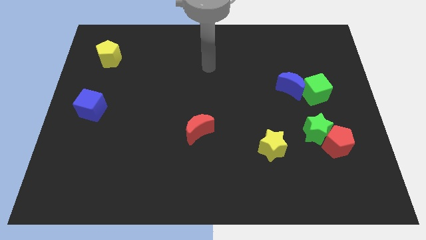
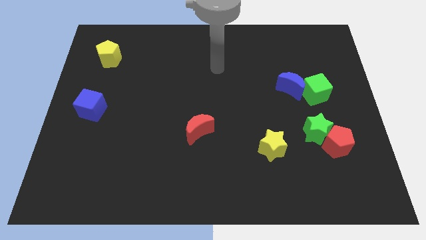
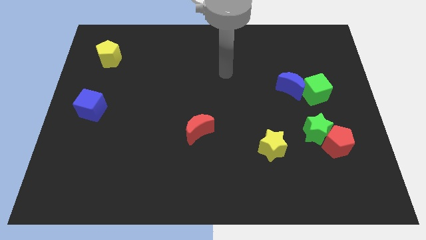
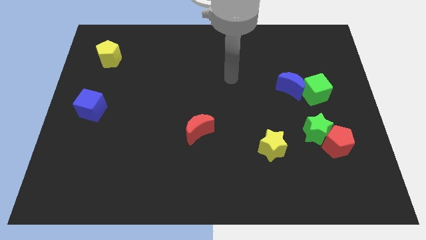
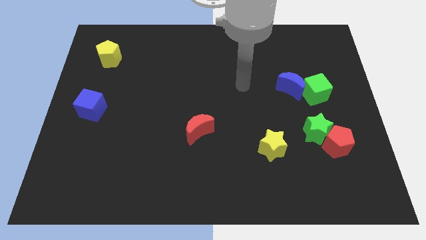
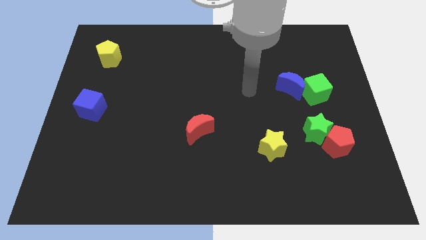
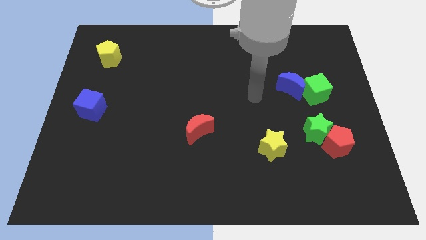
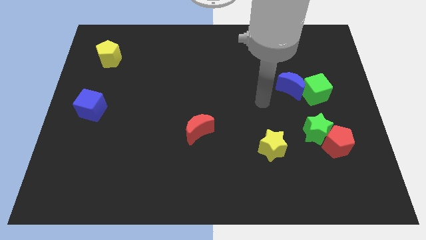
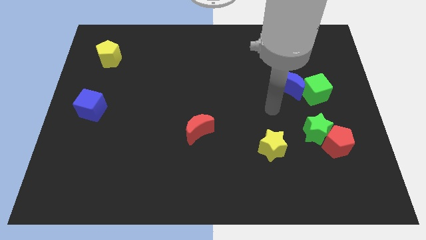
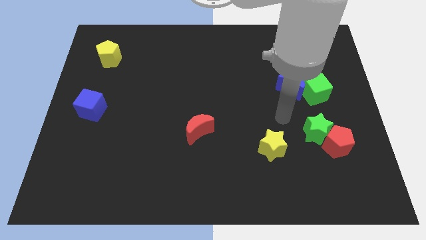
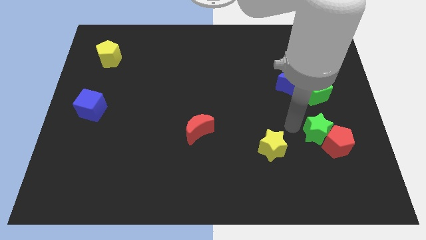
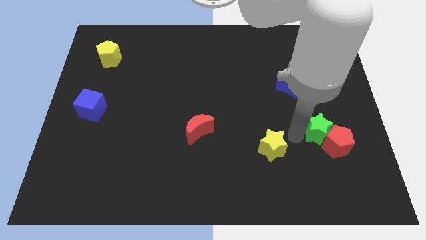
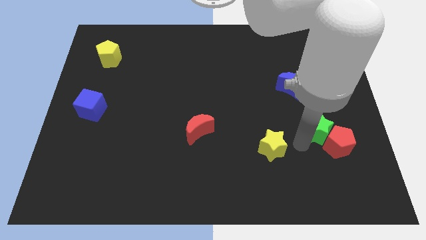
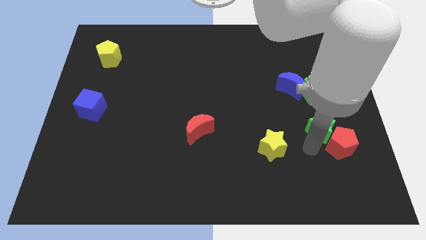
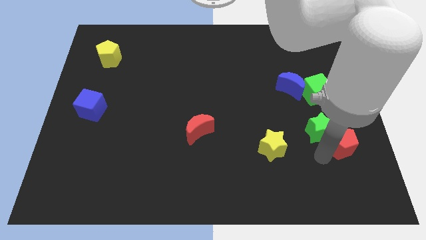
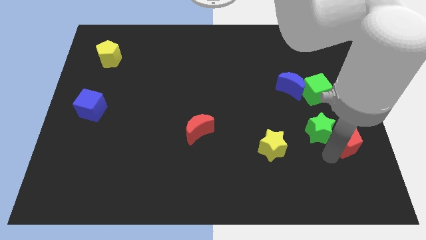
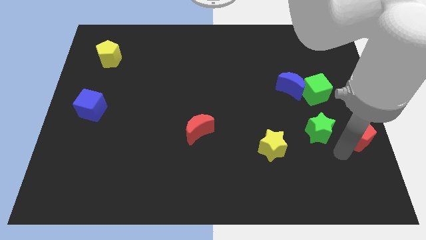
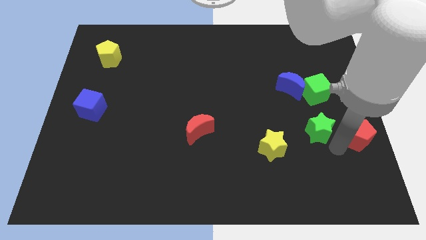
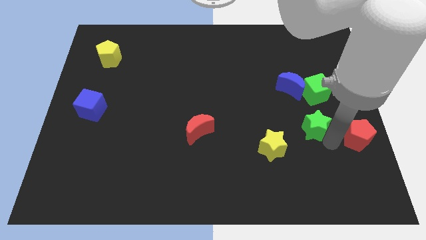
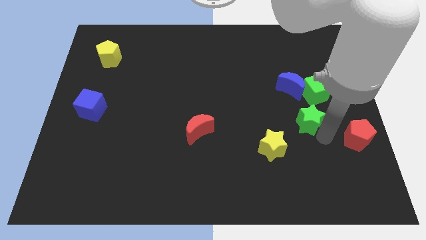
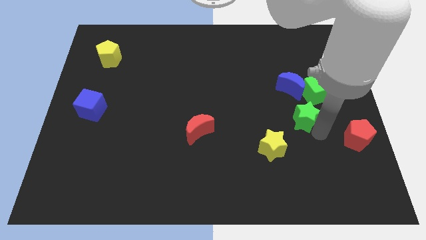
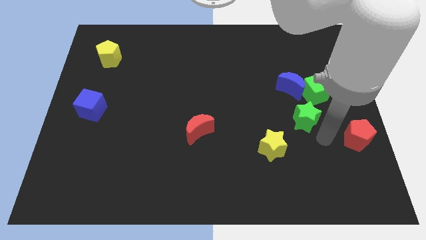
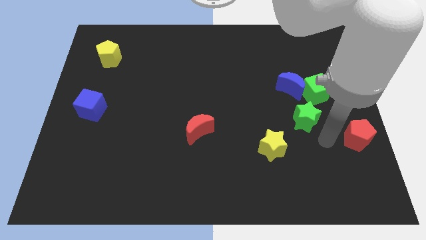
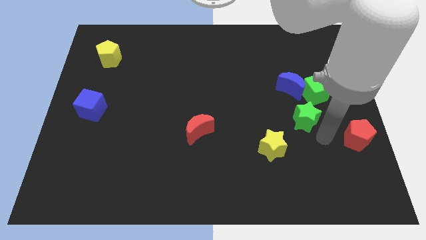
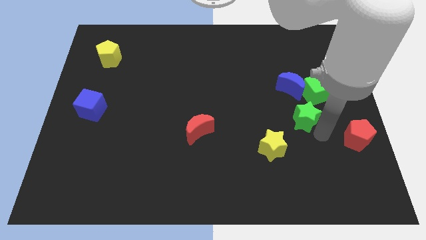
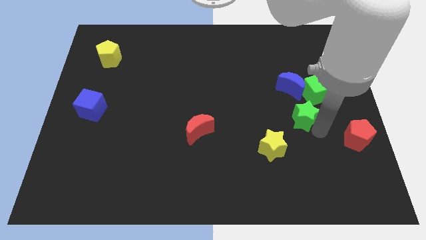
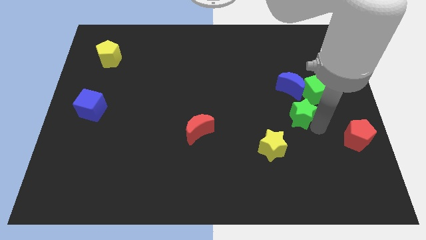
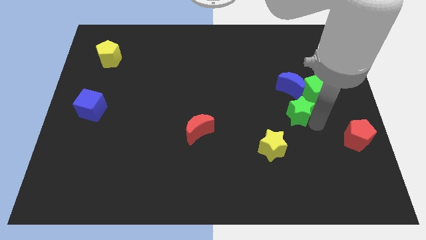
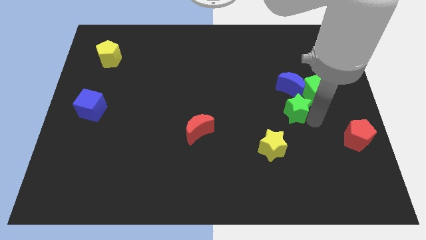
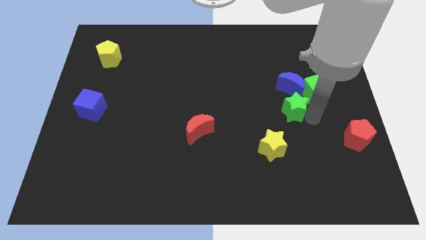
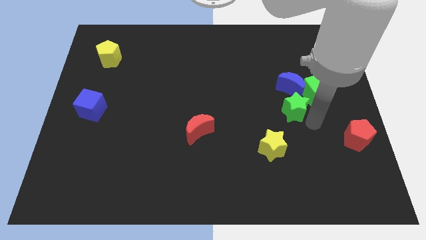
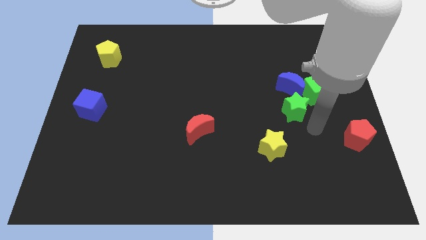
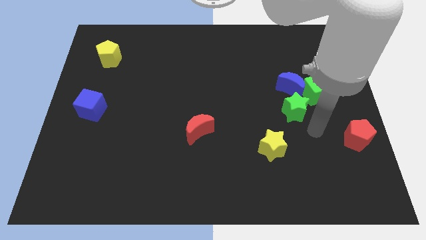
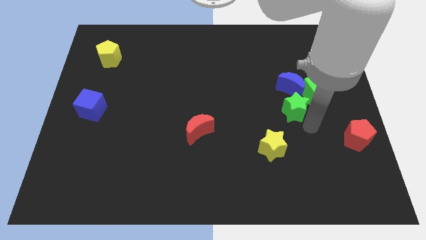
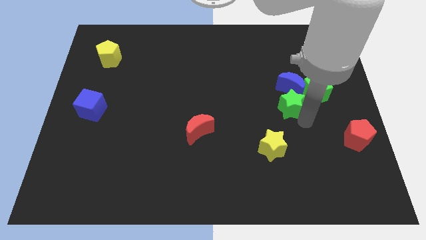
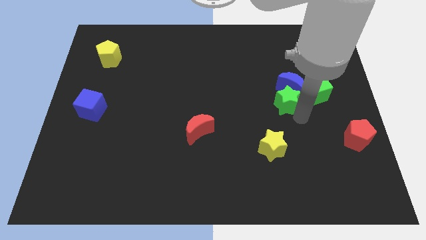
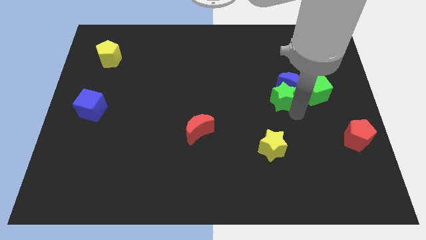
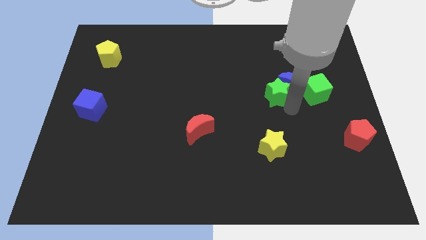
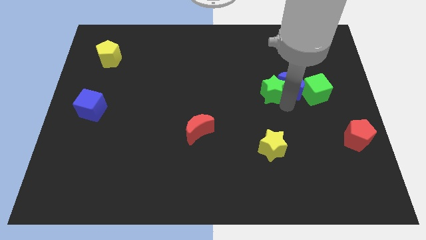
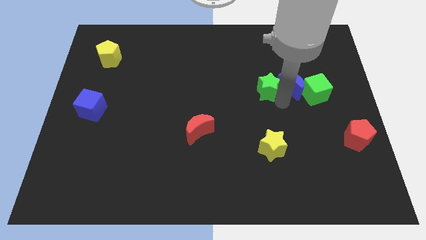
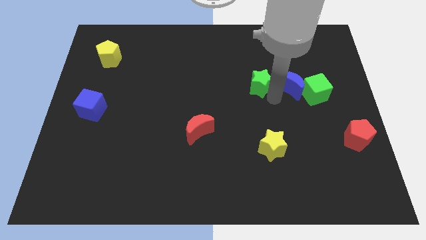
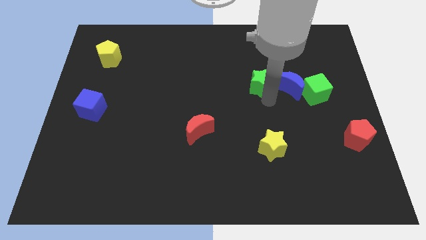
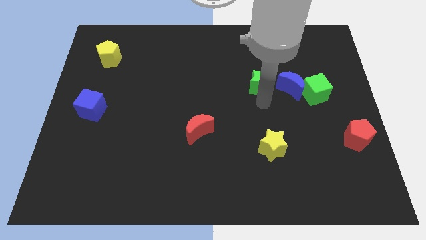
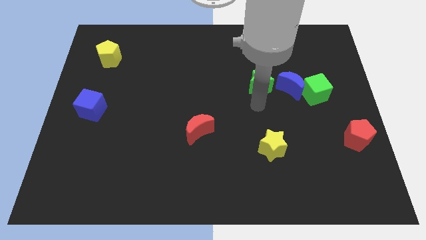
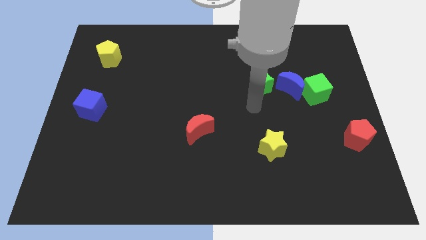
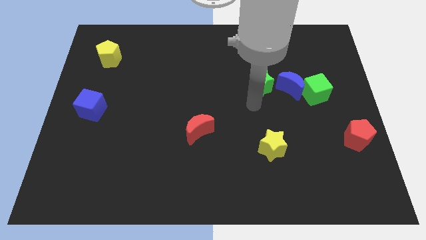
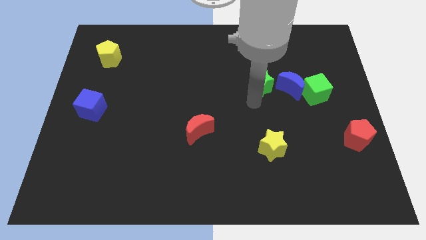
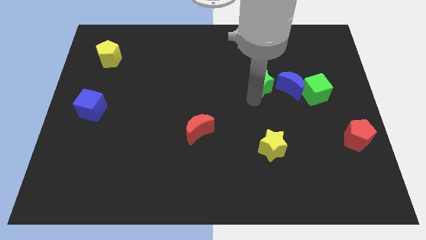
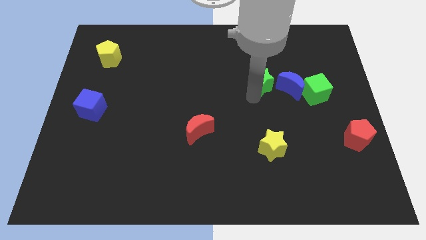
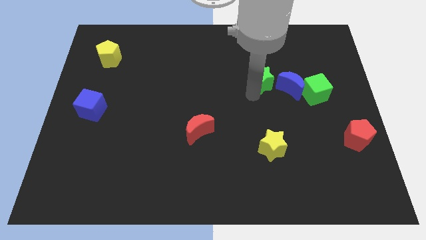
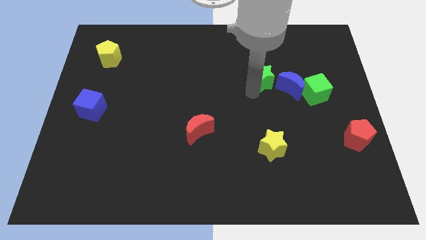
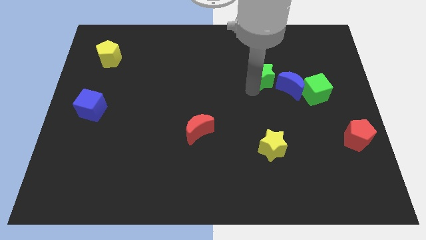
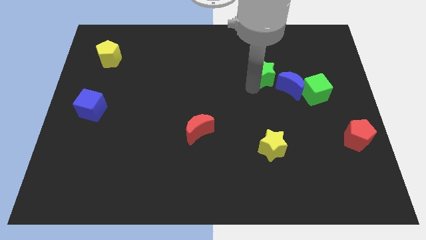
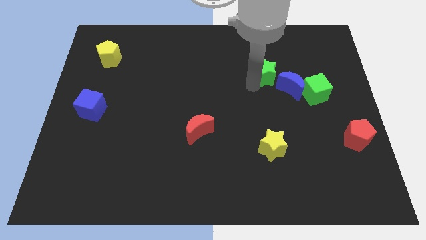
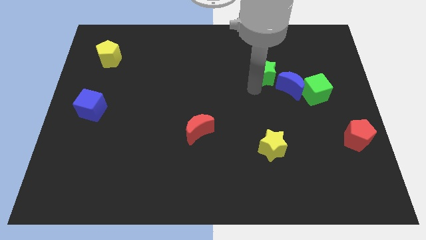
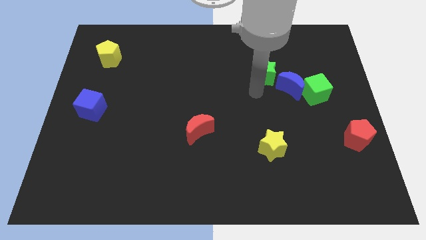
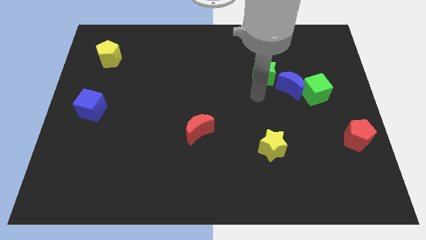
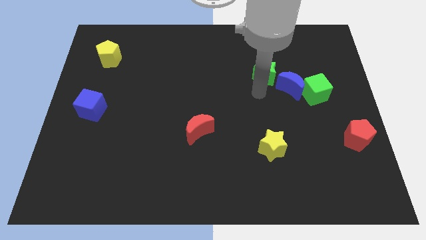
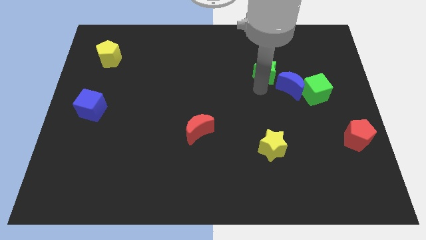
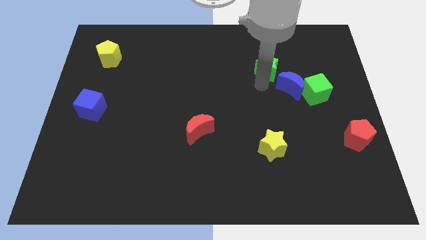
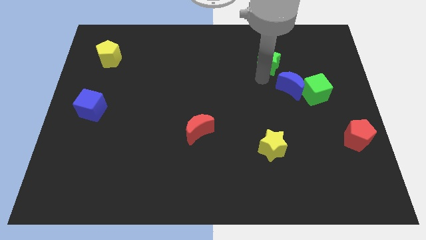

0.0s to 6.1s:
put the green star to the top side of the blue moon

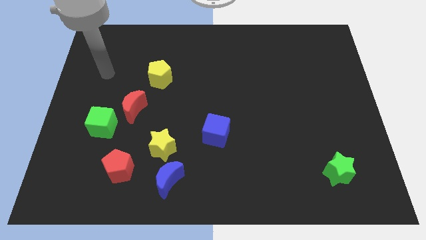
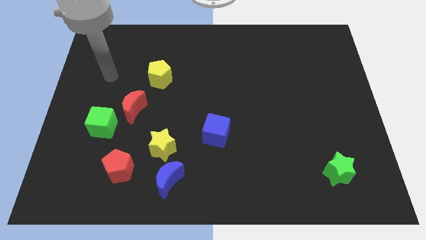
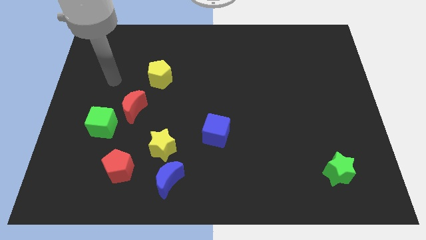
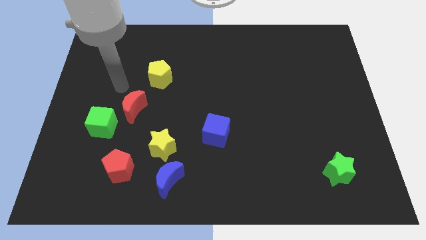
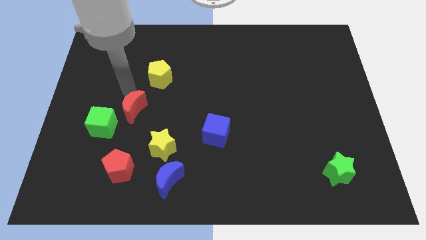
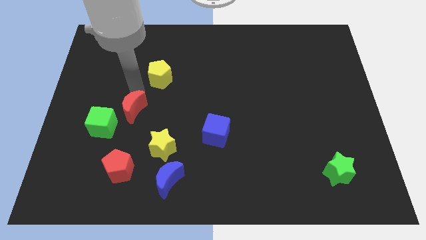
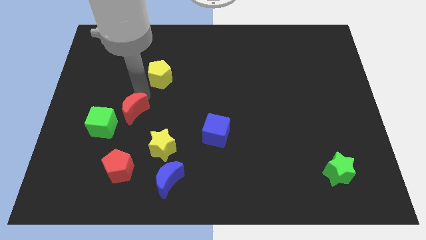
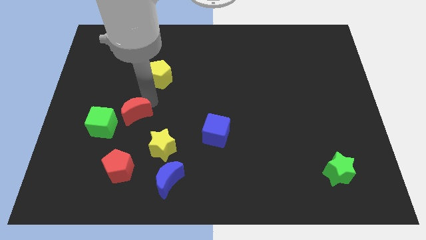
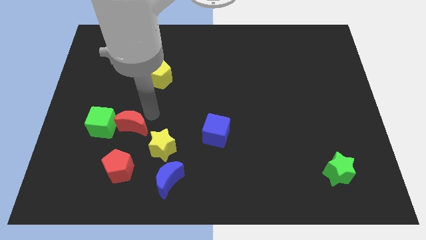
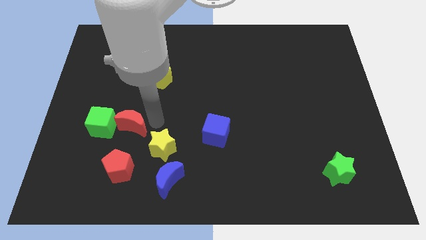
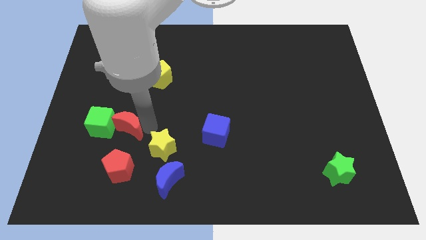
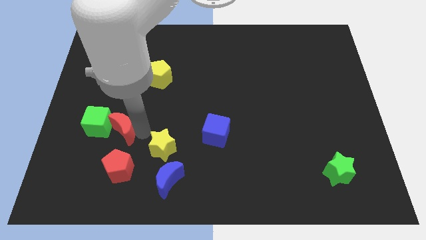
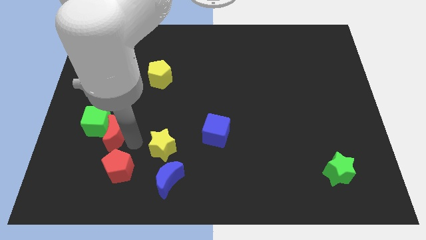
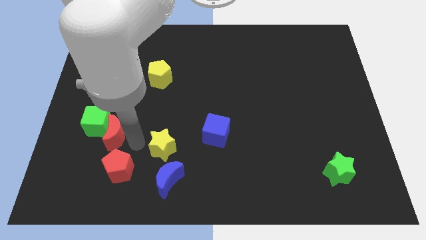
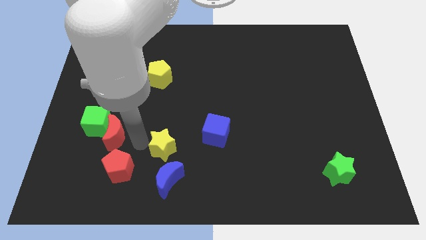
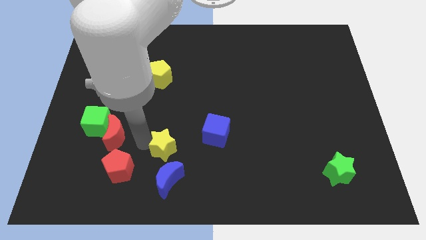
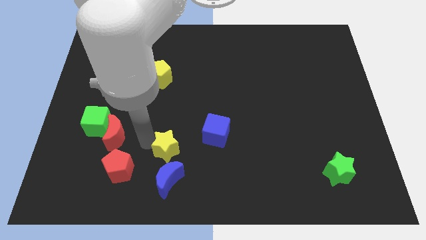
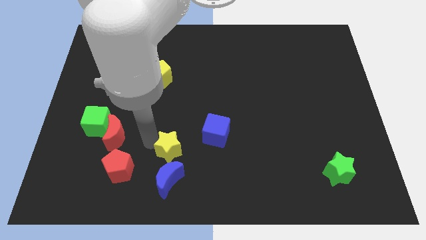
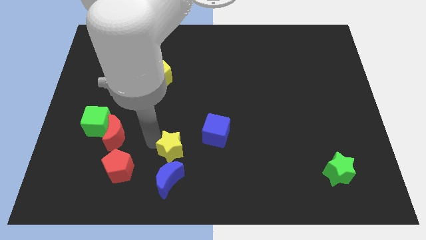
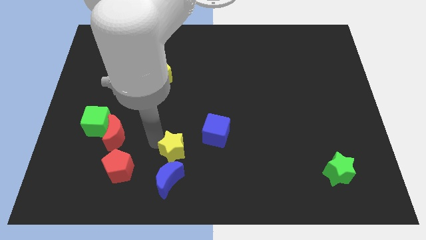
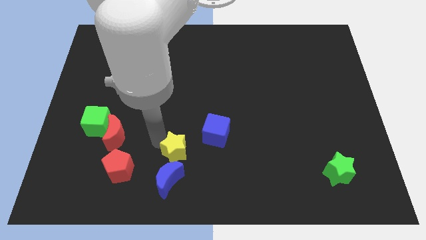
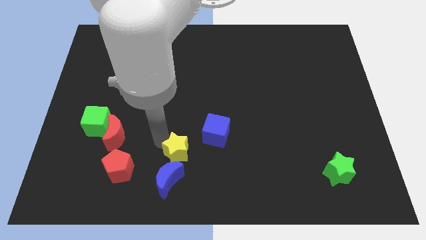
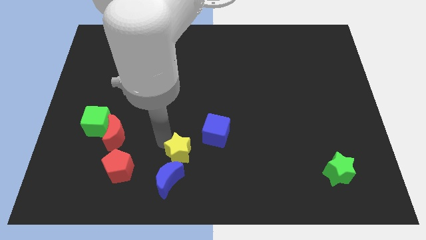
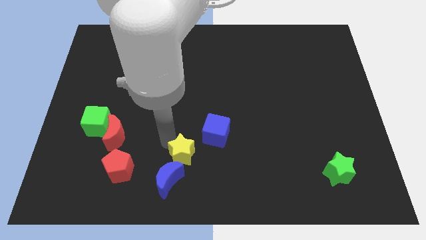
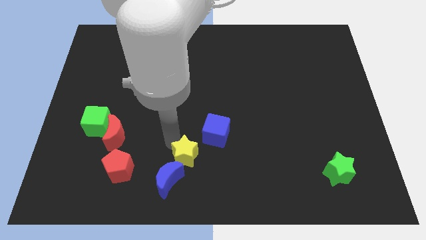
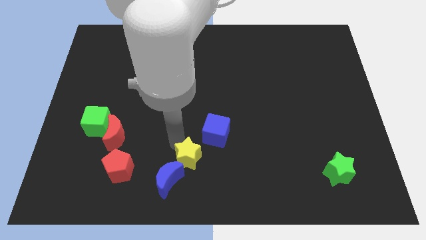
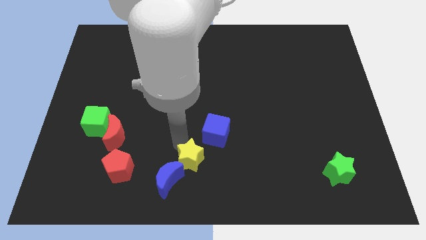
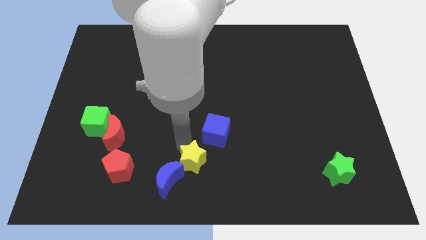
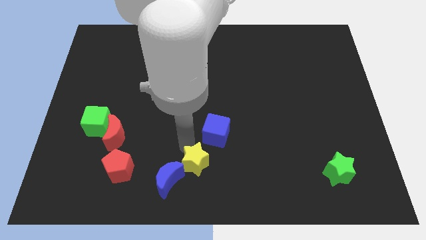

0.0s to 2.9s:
slide the yellow star to the bottom side of the blue cube
